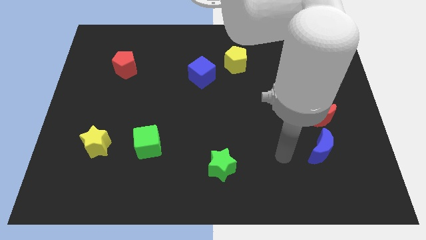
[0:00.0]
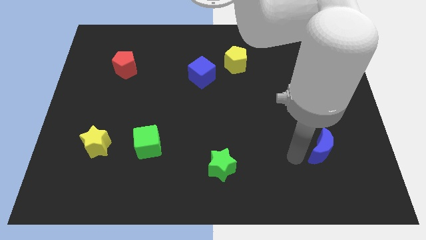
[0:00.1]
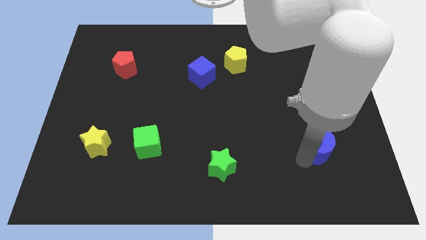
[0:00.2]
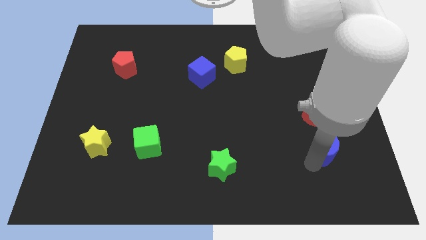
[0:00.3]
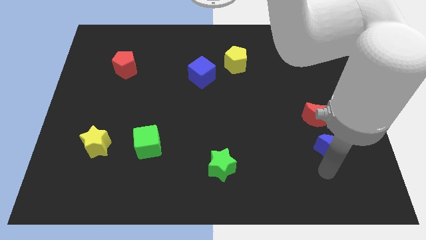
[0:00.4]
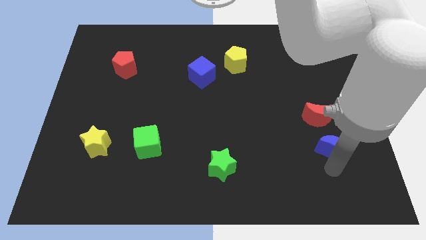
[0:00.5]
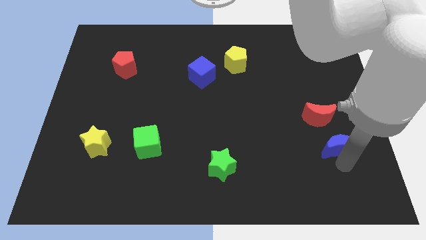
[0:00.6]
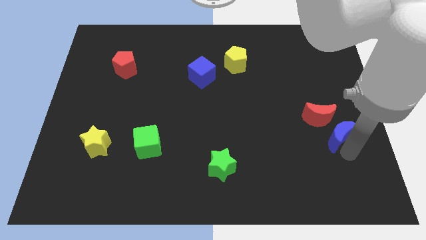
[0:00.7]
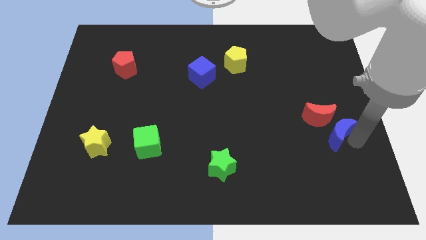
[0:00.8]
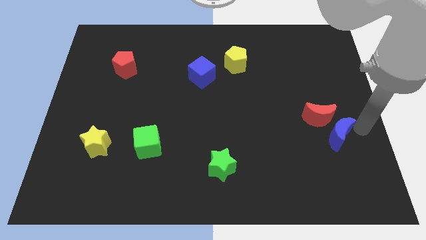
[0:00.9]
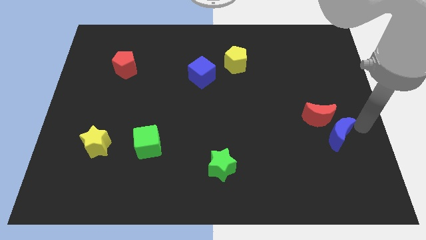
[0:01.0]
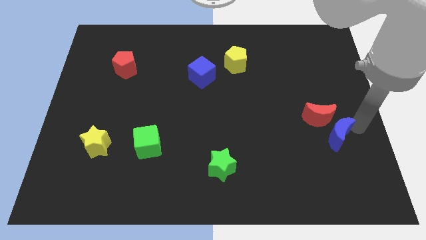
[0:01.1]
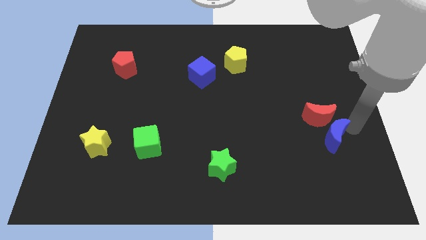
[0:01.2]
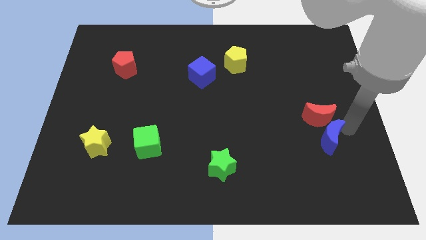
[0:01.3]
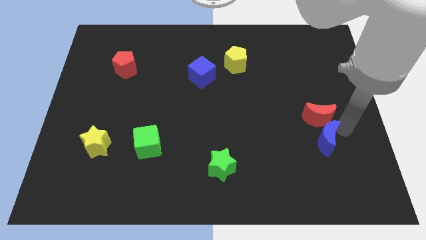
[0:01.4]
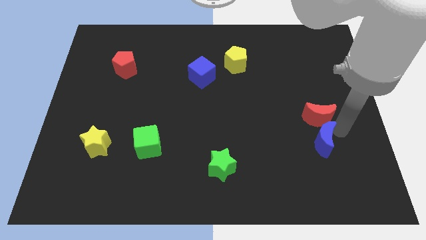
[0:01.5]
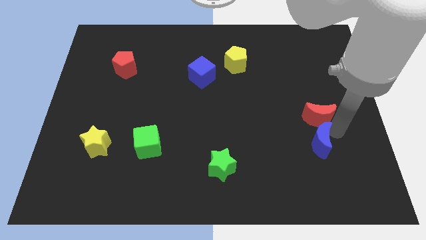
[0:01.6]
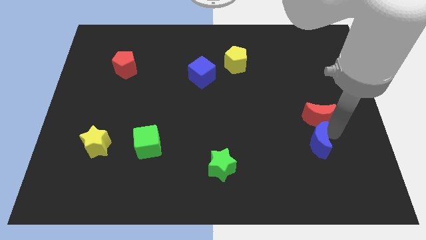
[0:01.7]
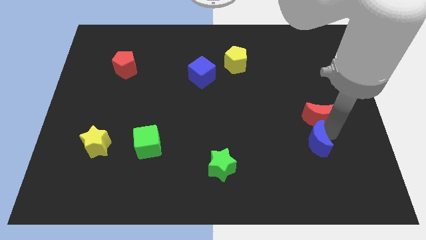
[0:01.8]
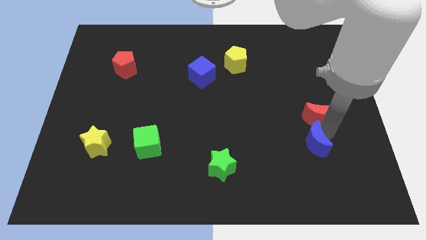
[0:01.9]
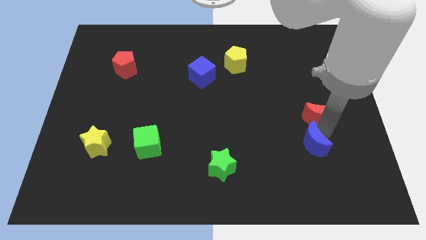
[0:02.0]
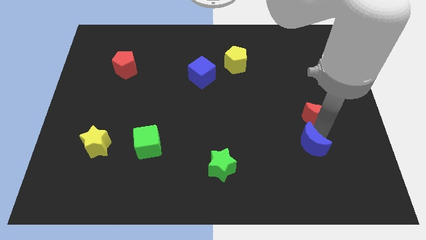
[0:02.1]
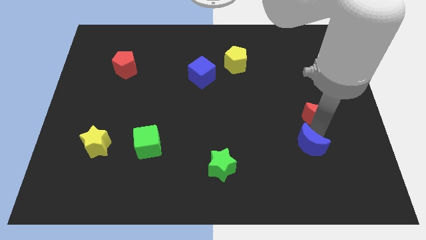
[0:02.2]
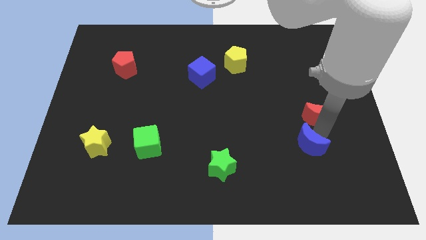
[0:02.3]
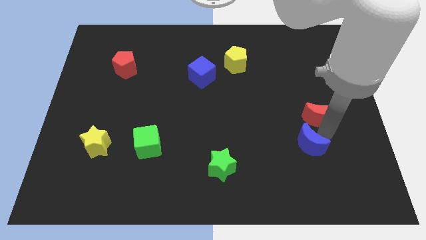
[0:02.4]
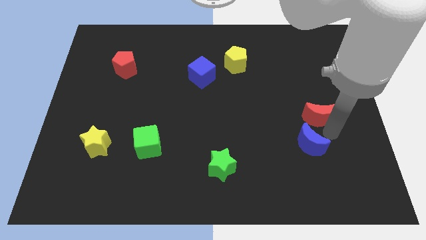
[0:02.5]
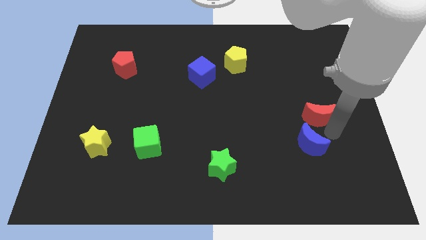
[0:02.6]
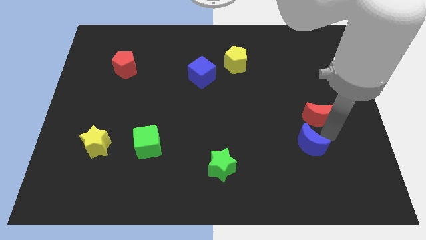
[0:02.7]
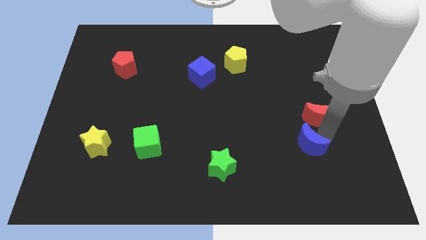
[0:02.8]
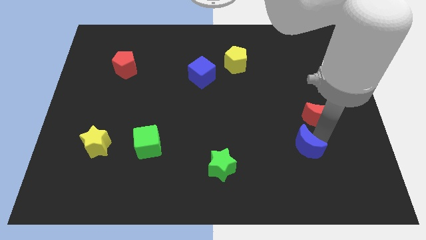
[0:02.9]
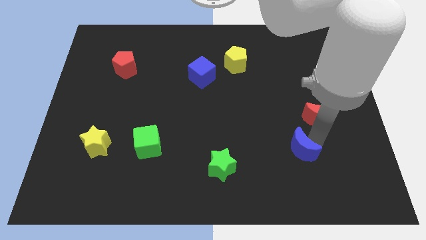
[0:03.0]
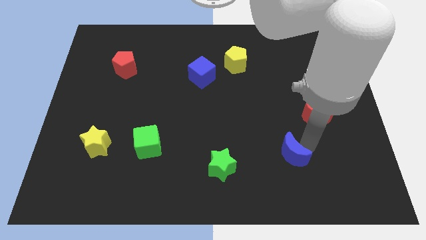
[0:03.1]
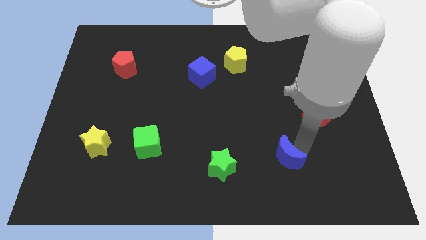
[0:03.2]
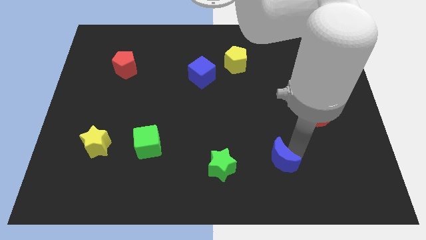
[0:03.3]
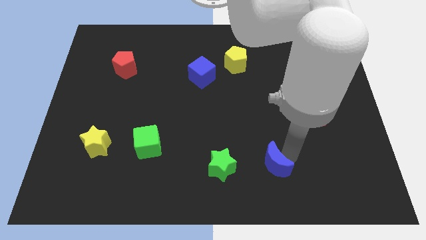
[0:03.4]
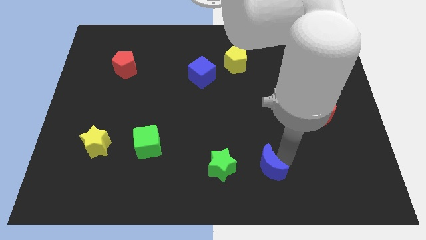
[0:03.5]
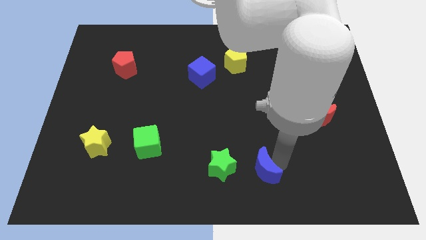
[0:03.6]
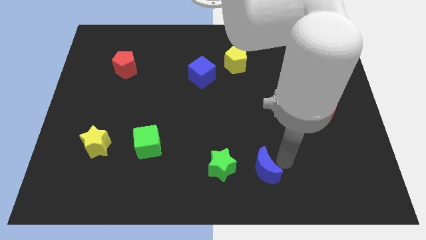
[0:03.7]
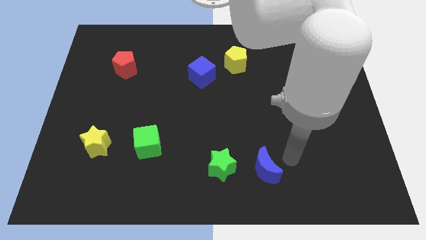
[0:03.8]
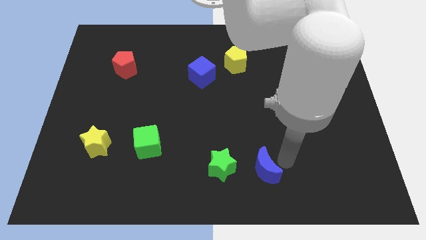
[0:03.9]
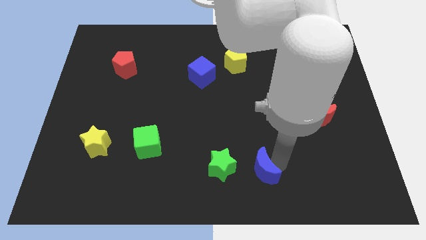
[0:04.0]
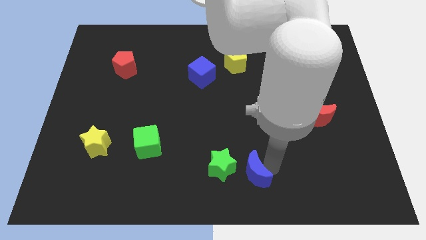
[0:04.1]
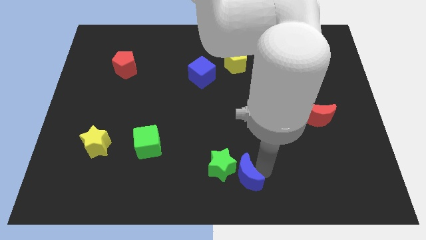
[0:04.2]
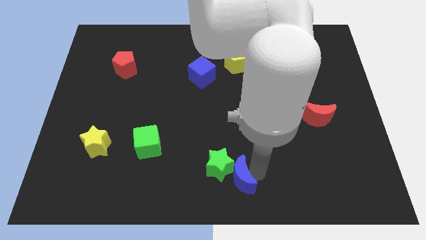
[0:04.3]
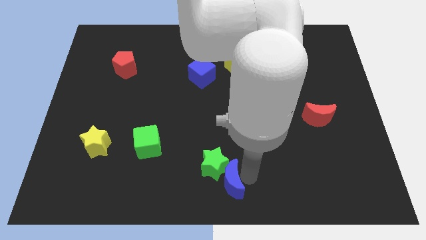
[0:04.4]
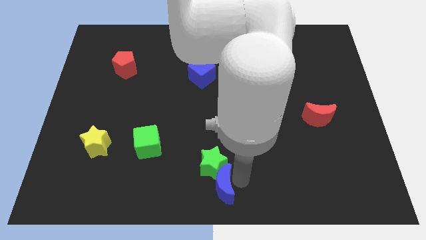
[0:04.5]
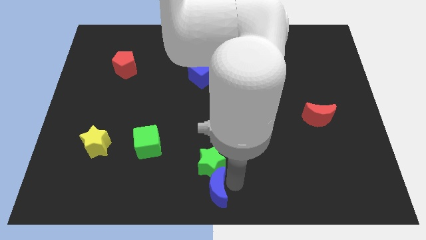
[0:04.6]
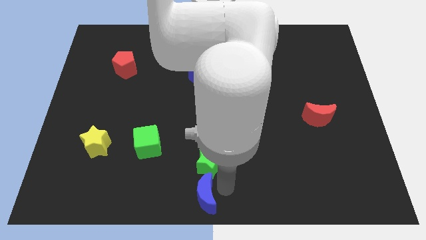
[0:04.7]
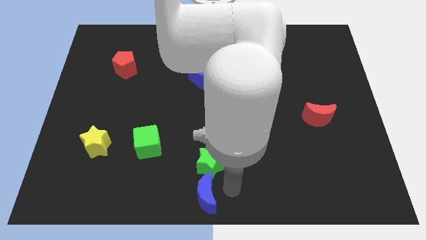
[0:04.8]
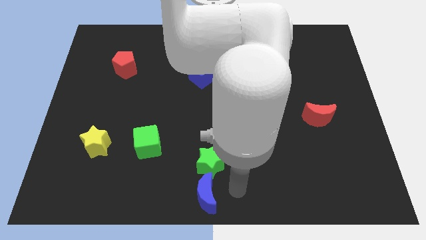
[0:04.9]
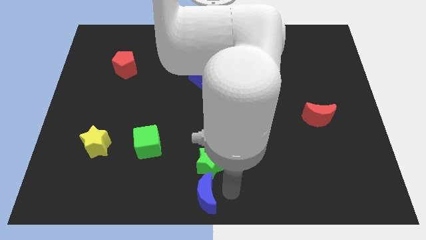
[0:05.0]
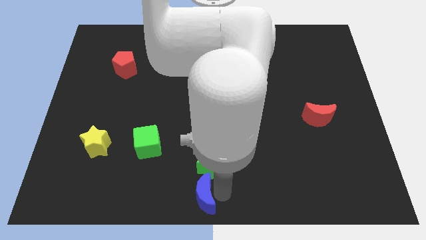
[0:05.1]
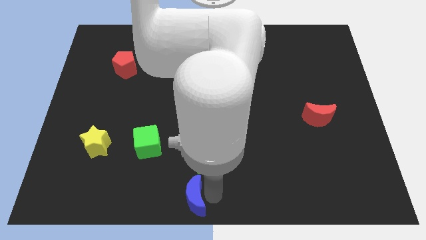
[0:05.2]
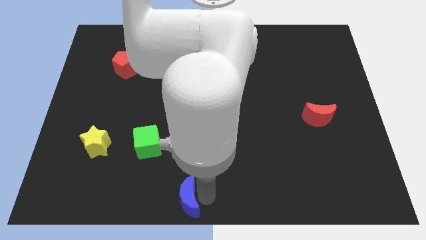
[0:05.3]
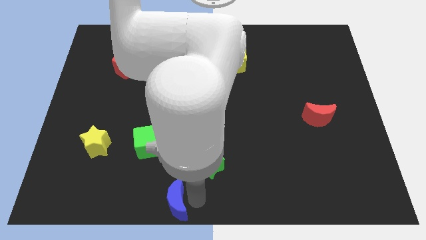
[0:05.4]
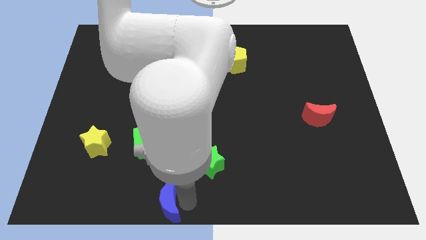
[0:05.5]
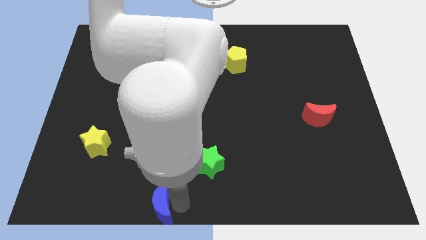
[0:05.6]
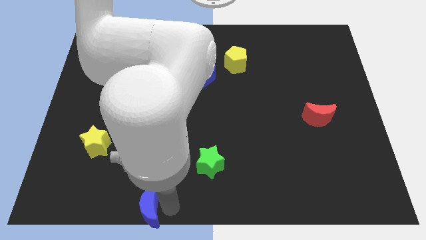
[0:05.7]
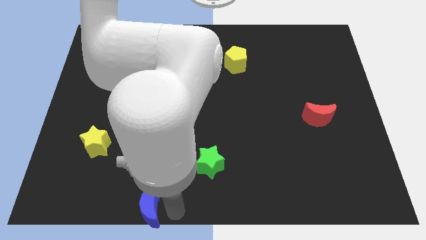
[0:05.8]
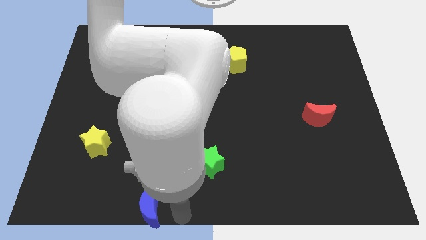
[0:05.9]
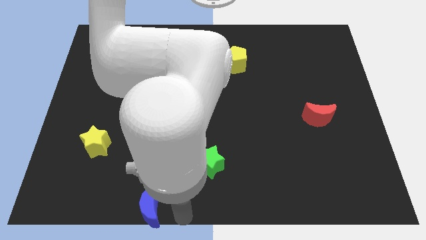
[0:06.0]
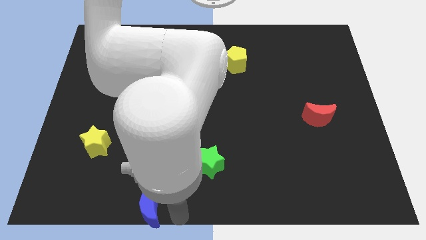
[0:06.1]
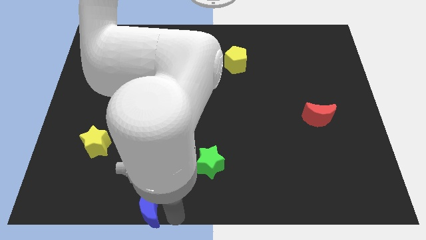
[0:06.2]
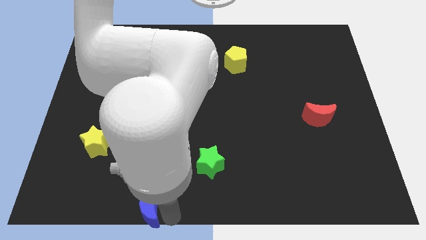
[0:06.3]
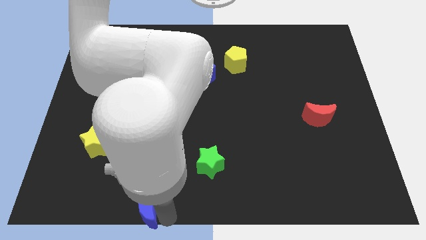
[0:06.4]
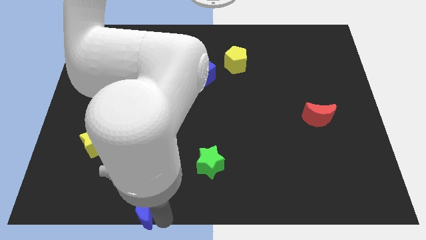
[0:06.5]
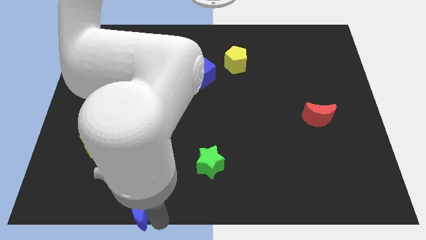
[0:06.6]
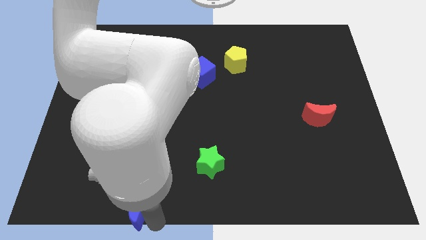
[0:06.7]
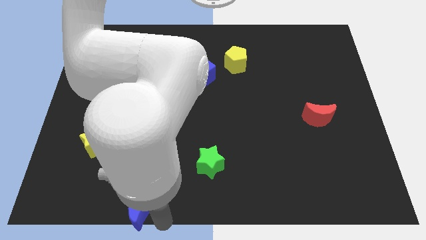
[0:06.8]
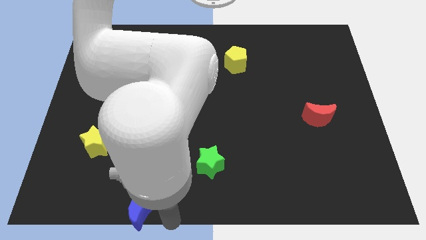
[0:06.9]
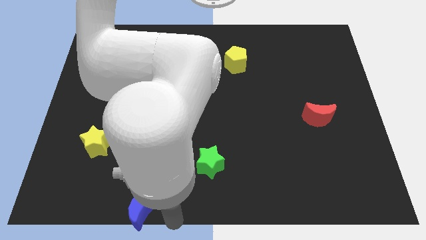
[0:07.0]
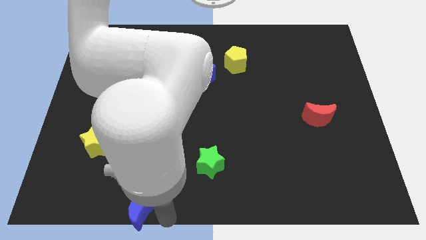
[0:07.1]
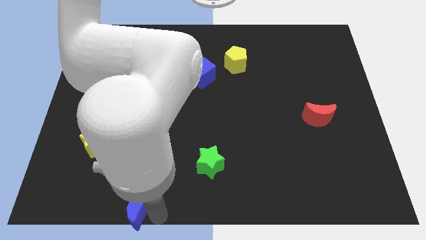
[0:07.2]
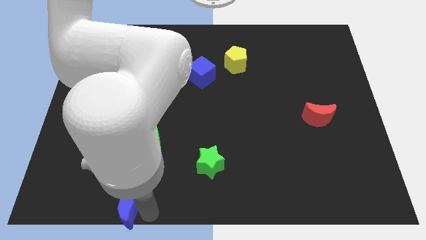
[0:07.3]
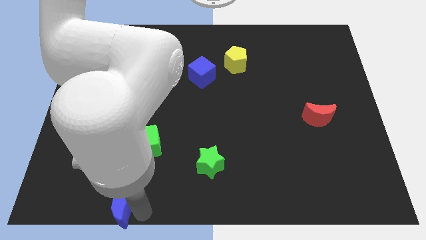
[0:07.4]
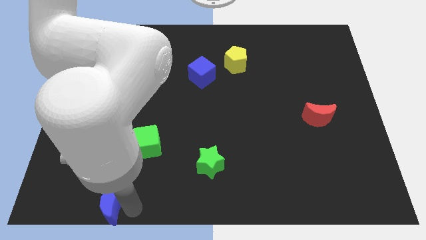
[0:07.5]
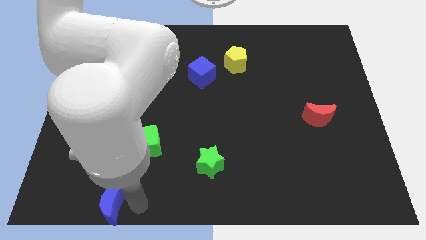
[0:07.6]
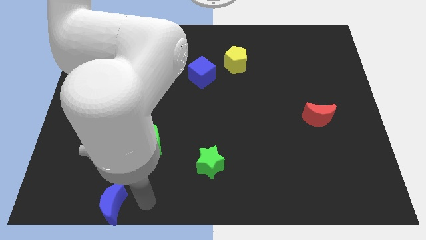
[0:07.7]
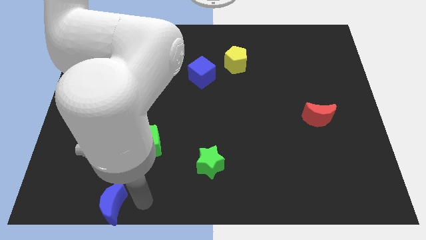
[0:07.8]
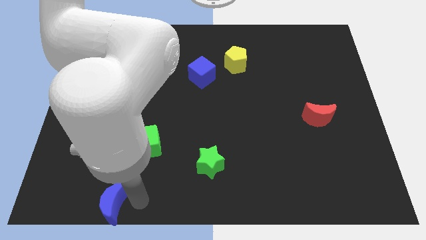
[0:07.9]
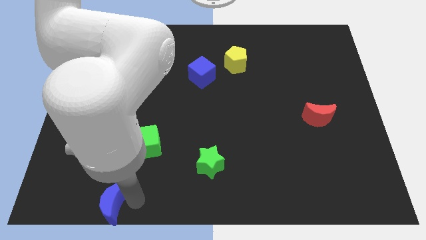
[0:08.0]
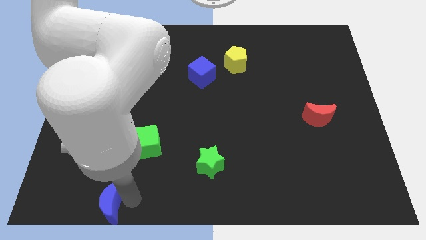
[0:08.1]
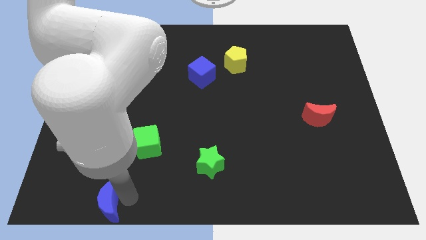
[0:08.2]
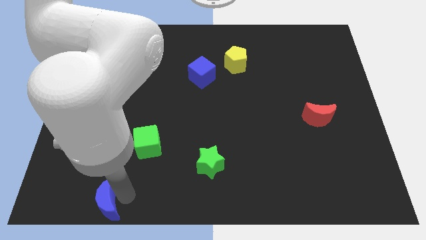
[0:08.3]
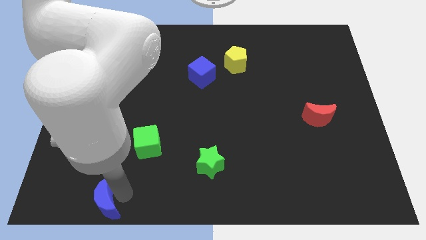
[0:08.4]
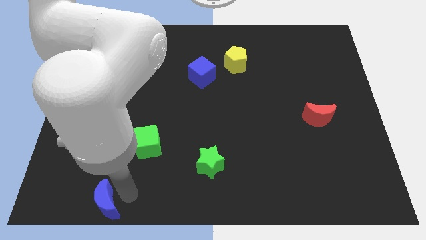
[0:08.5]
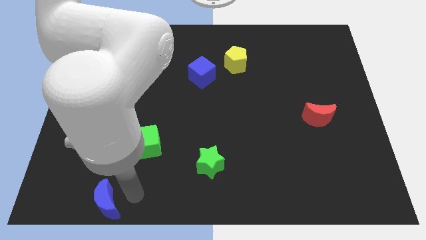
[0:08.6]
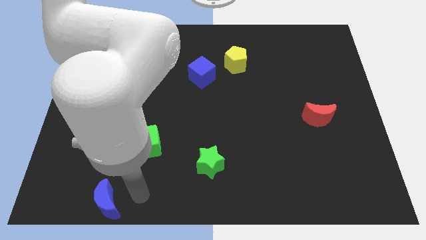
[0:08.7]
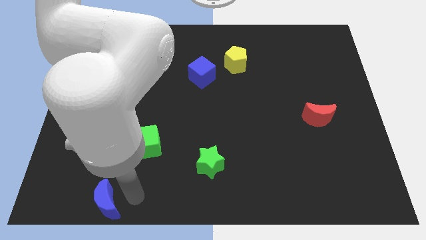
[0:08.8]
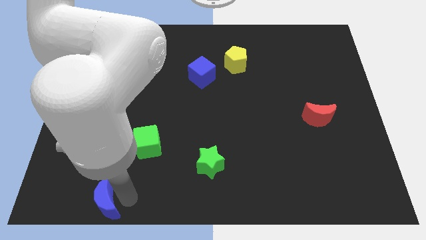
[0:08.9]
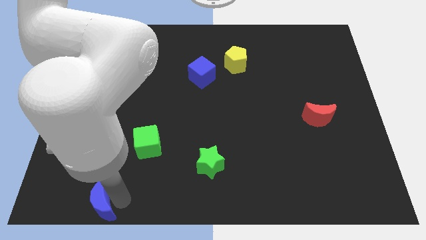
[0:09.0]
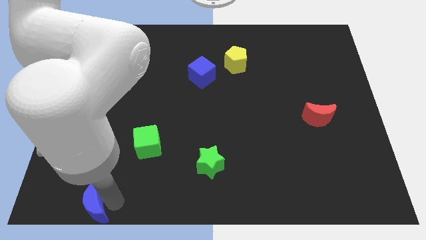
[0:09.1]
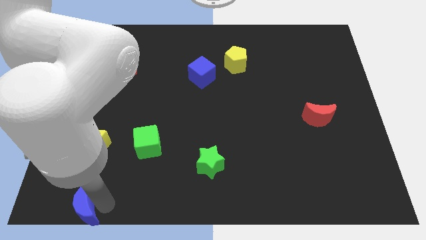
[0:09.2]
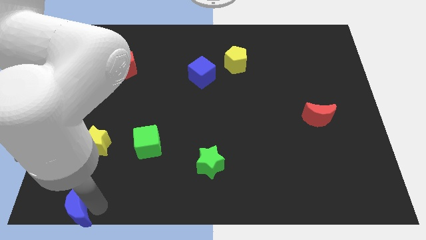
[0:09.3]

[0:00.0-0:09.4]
slide the blue moon to the bottom left of the board
